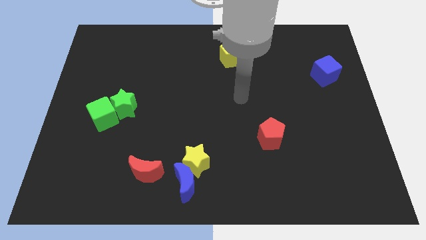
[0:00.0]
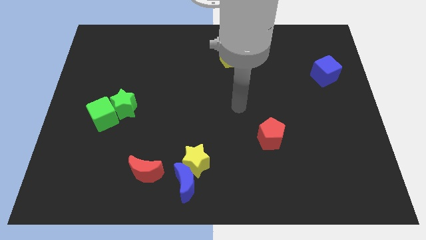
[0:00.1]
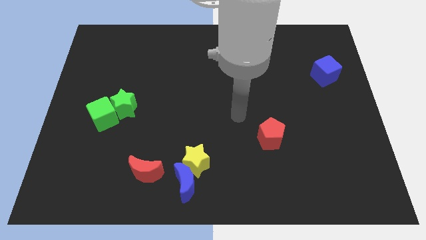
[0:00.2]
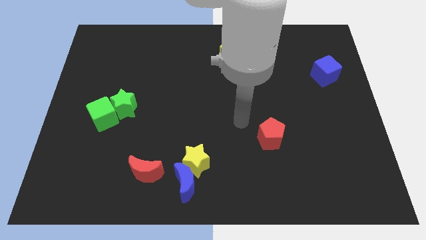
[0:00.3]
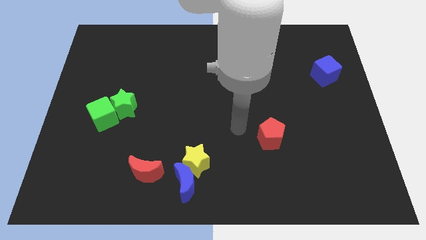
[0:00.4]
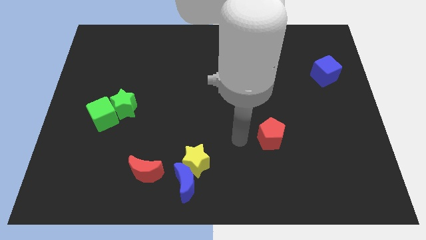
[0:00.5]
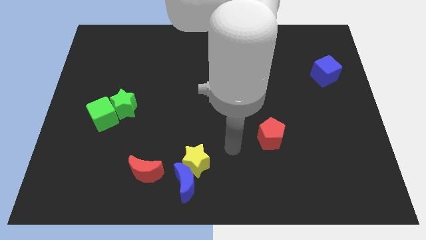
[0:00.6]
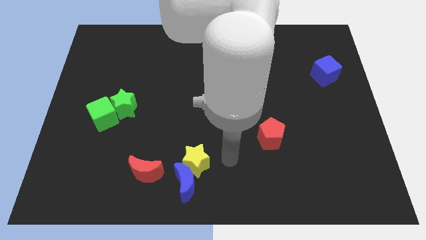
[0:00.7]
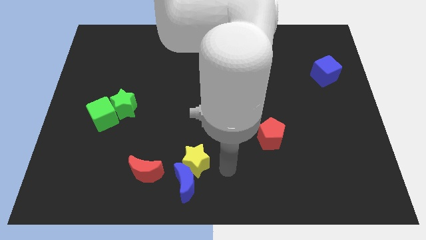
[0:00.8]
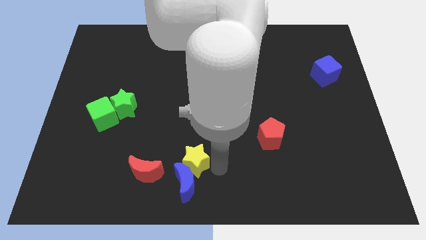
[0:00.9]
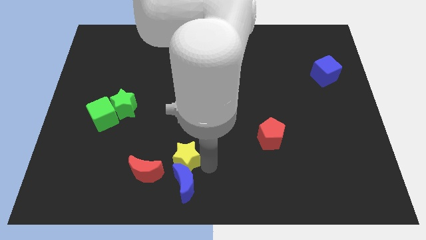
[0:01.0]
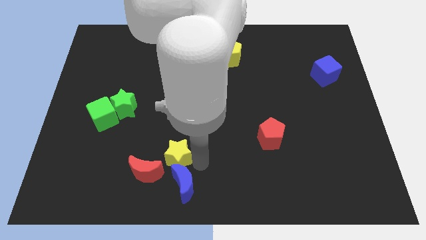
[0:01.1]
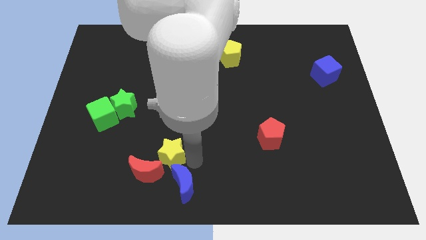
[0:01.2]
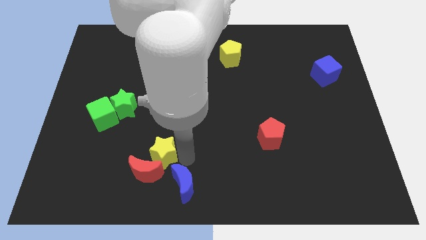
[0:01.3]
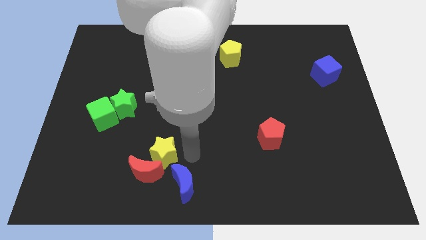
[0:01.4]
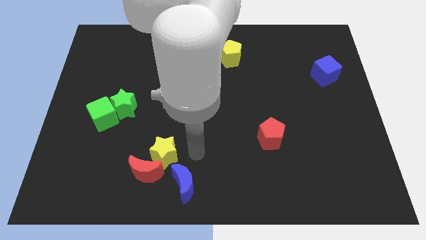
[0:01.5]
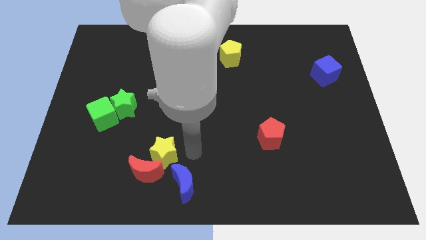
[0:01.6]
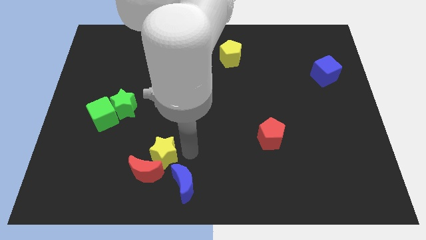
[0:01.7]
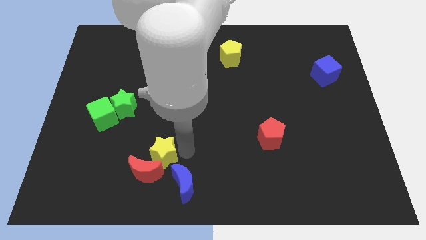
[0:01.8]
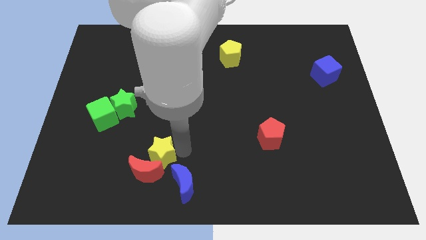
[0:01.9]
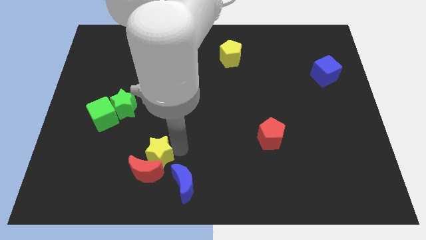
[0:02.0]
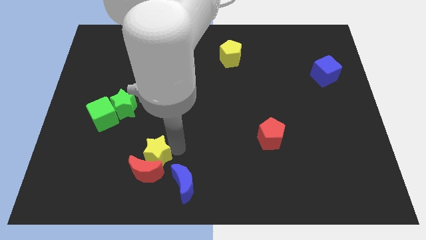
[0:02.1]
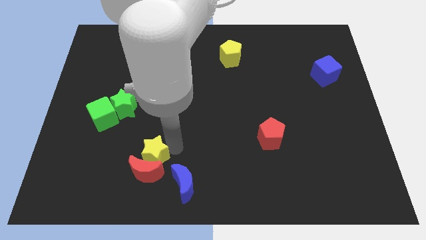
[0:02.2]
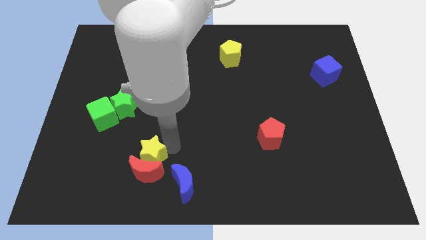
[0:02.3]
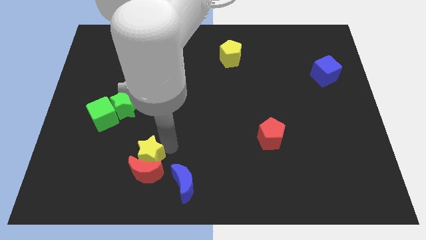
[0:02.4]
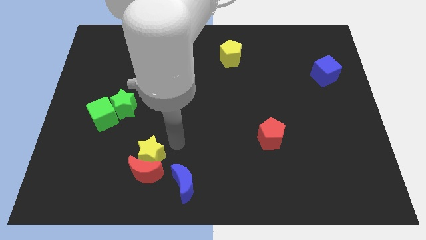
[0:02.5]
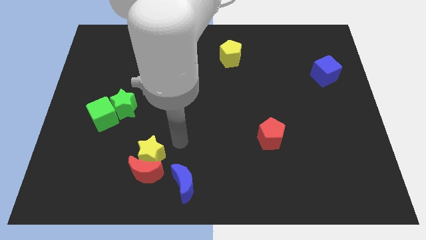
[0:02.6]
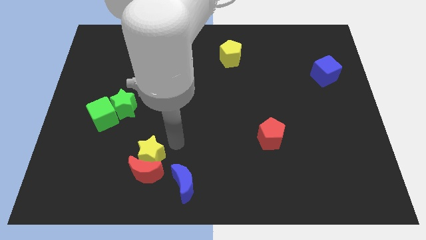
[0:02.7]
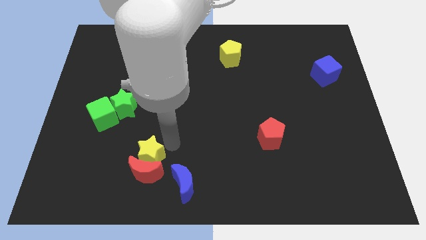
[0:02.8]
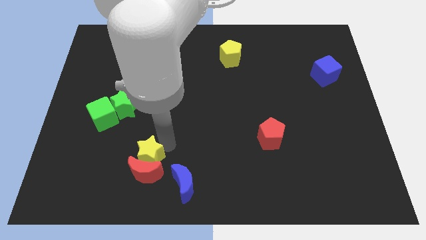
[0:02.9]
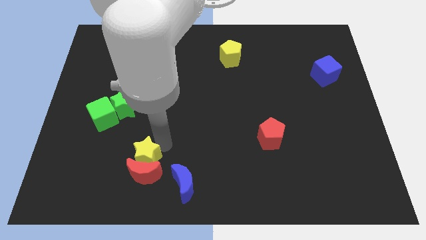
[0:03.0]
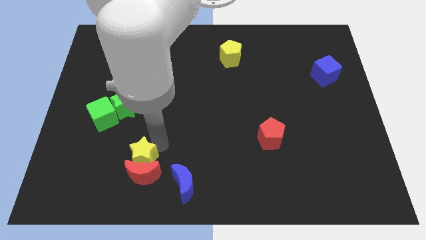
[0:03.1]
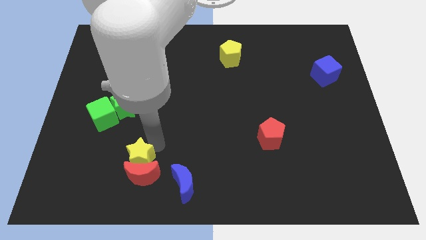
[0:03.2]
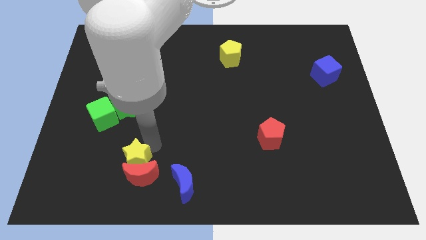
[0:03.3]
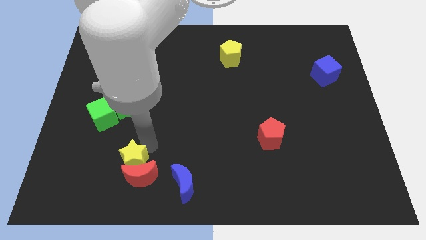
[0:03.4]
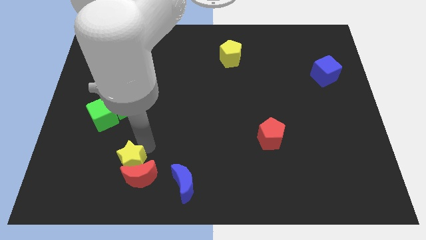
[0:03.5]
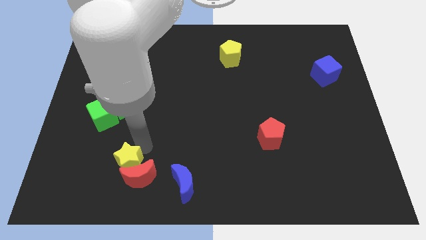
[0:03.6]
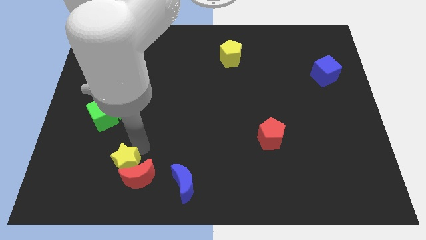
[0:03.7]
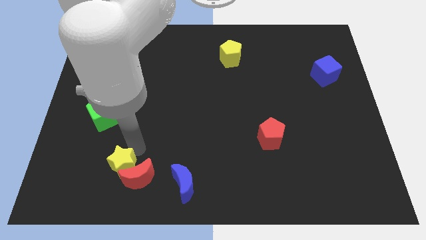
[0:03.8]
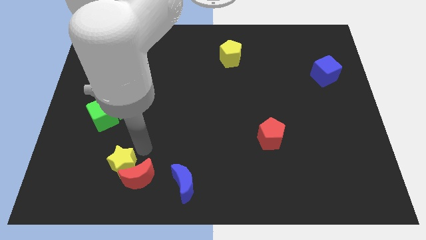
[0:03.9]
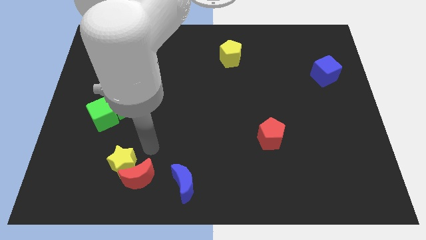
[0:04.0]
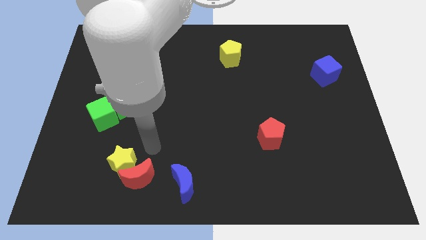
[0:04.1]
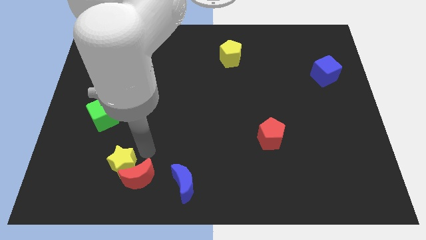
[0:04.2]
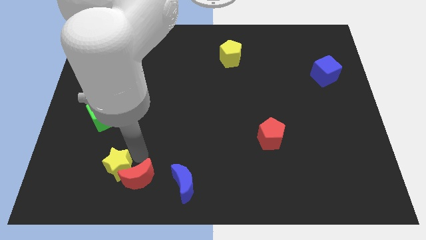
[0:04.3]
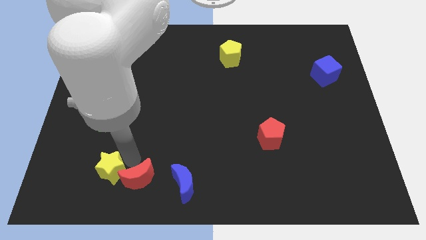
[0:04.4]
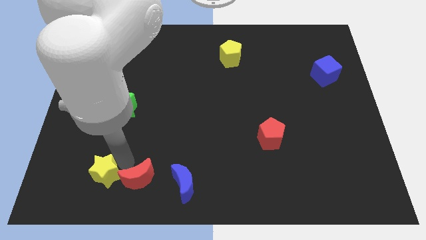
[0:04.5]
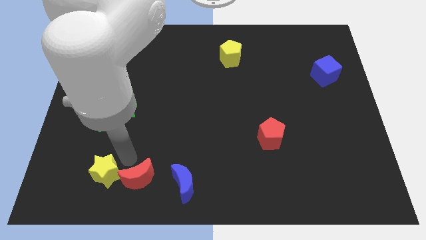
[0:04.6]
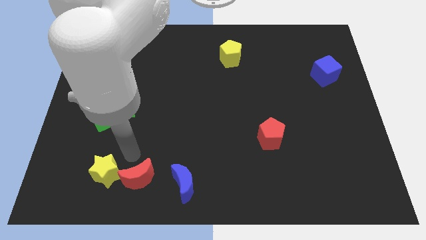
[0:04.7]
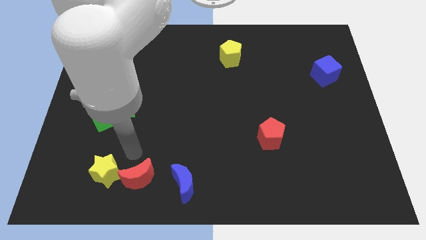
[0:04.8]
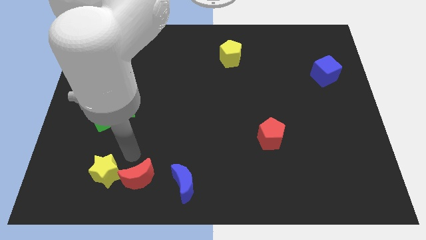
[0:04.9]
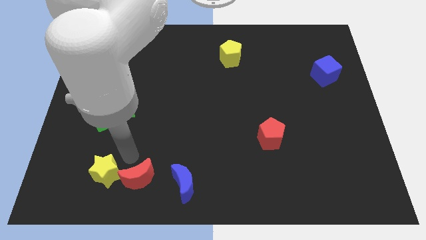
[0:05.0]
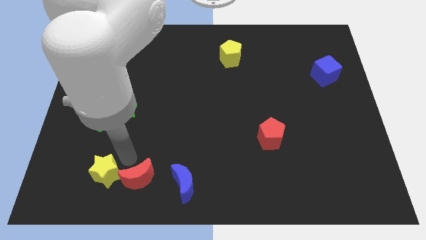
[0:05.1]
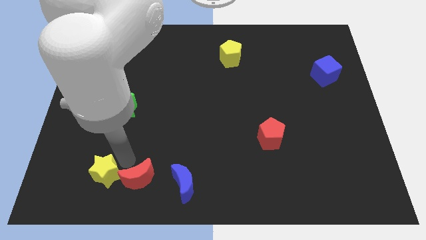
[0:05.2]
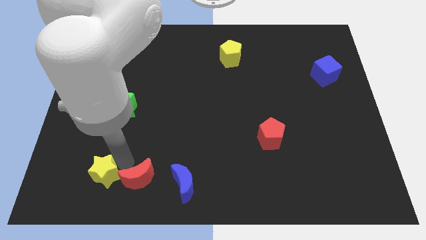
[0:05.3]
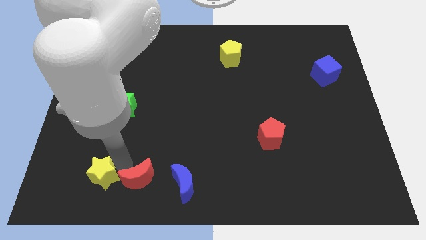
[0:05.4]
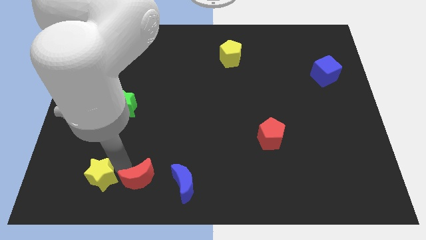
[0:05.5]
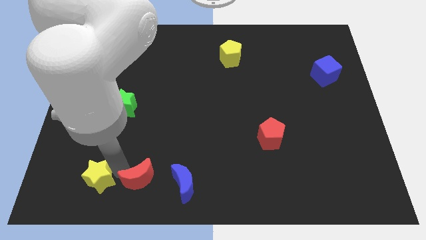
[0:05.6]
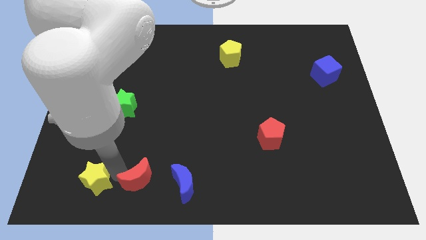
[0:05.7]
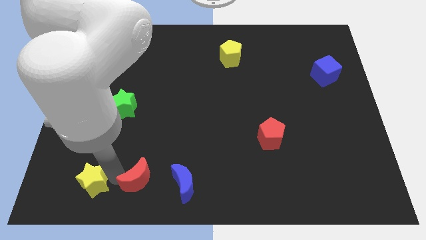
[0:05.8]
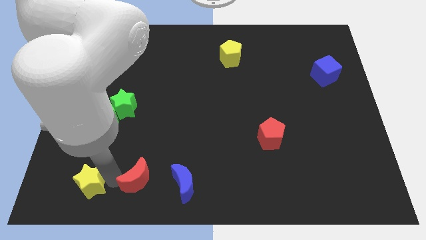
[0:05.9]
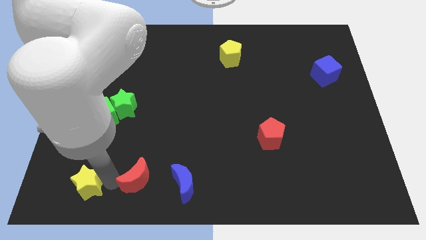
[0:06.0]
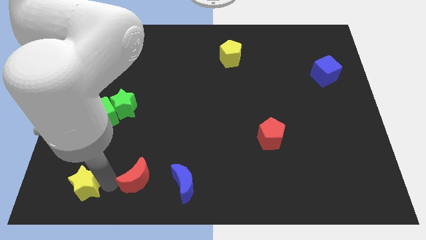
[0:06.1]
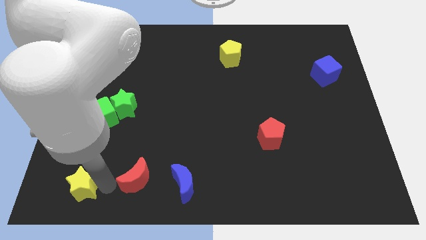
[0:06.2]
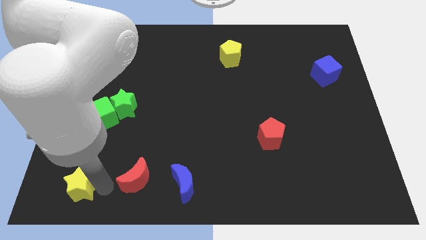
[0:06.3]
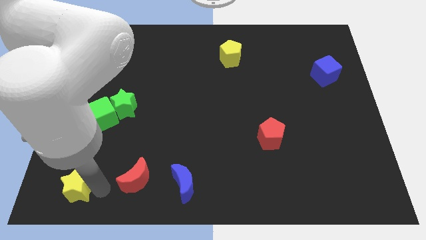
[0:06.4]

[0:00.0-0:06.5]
move the yellow star to the bottom left
